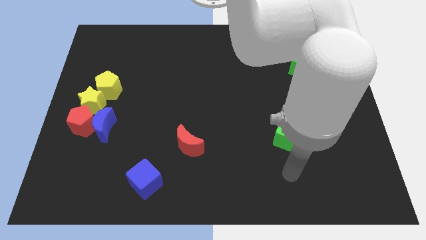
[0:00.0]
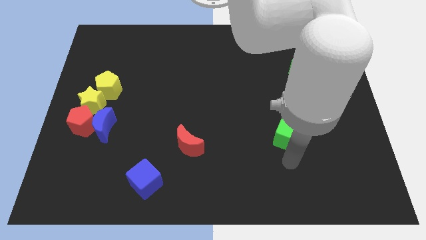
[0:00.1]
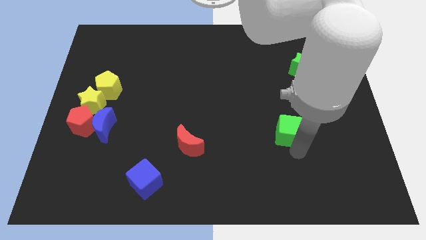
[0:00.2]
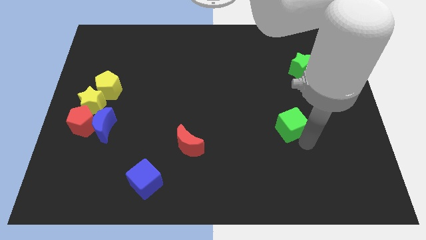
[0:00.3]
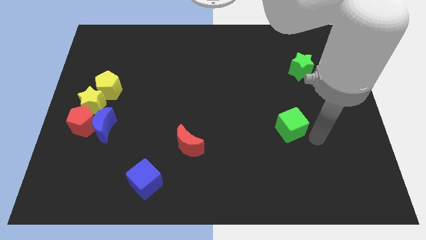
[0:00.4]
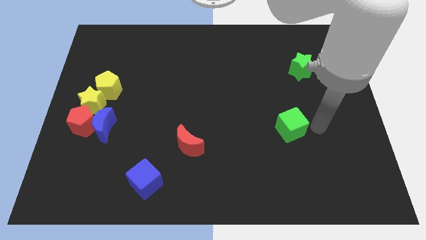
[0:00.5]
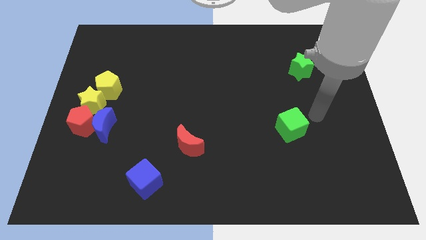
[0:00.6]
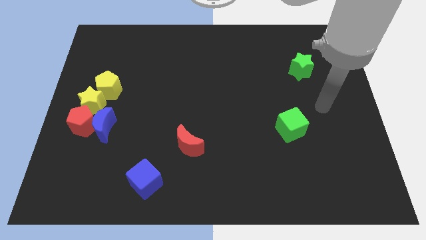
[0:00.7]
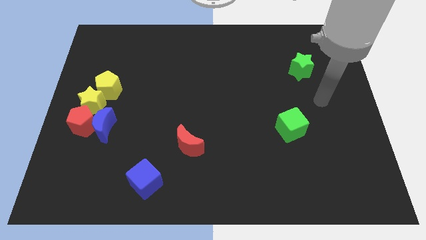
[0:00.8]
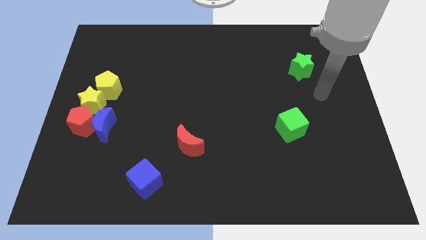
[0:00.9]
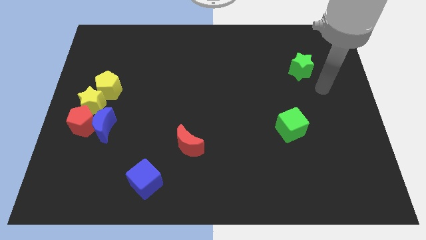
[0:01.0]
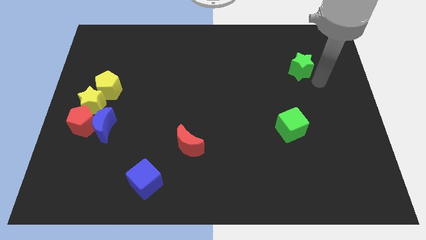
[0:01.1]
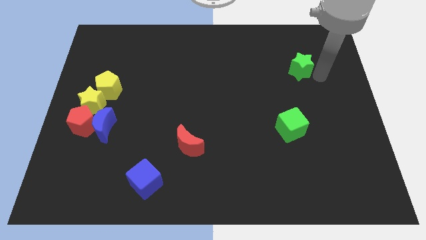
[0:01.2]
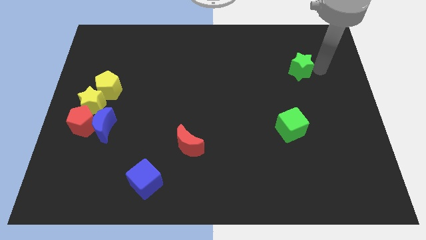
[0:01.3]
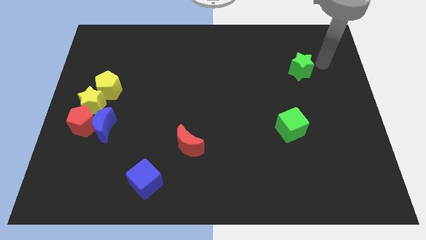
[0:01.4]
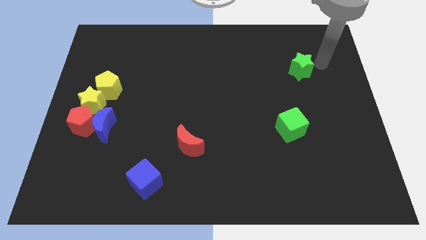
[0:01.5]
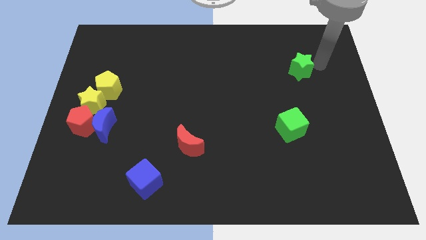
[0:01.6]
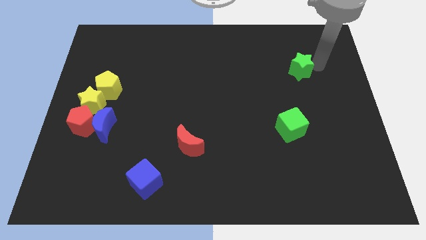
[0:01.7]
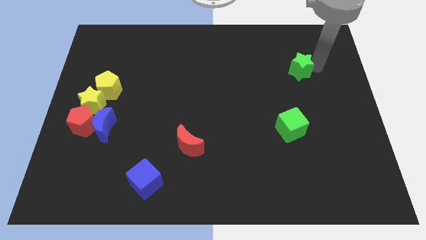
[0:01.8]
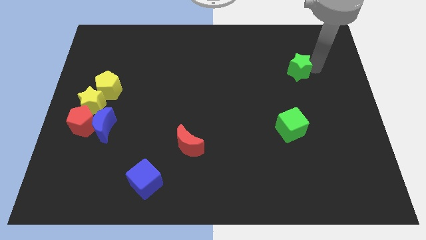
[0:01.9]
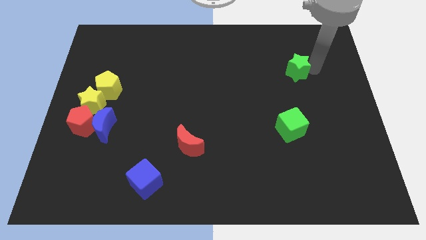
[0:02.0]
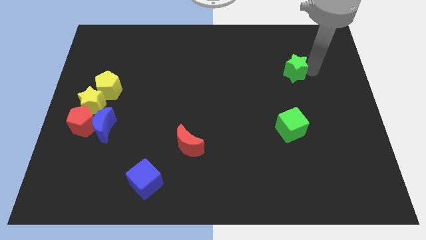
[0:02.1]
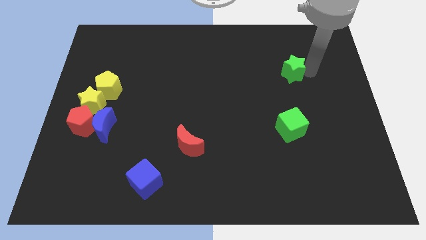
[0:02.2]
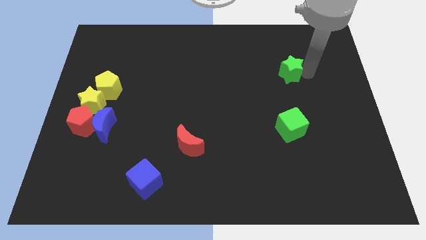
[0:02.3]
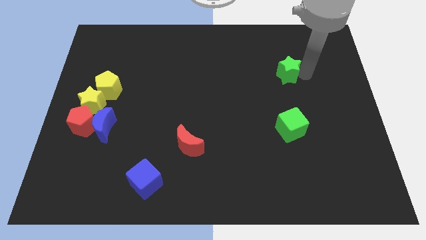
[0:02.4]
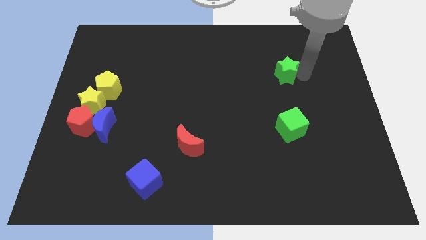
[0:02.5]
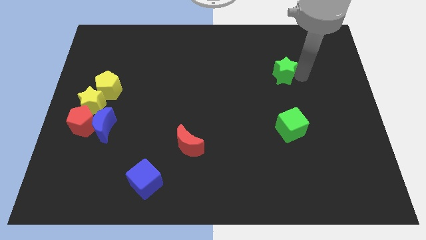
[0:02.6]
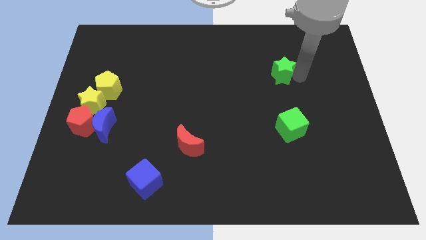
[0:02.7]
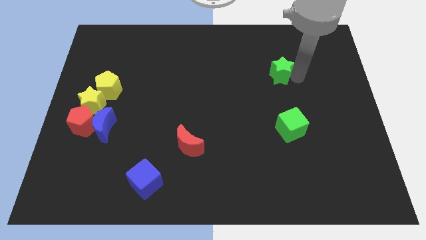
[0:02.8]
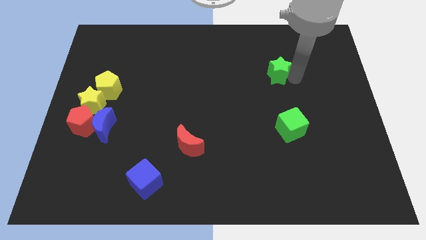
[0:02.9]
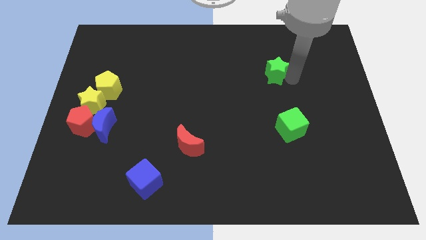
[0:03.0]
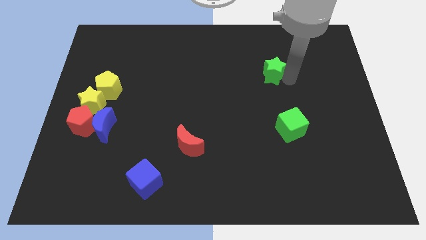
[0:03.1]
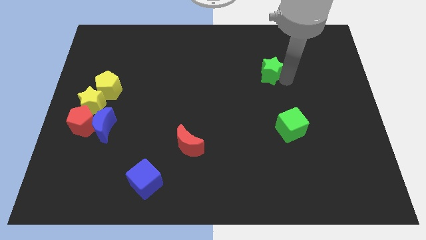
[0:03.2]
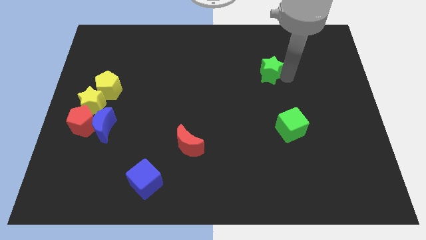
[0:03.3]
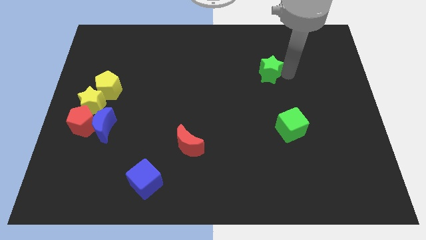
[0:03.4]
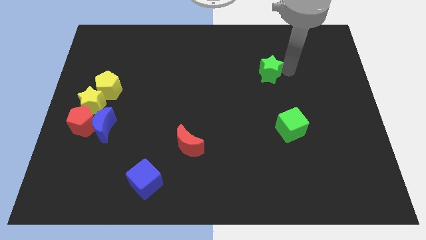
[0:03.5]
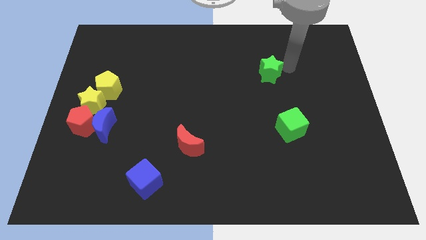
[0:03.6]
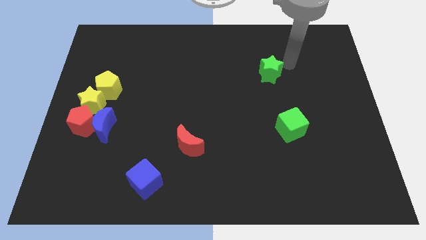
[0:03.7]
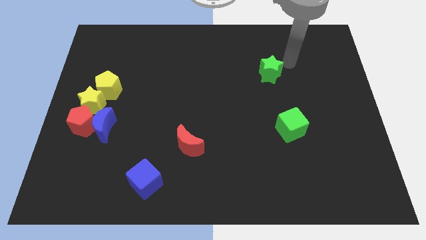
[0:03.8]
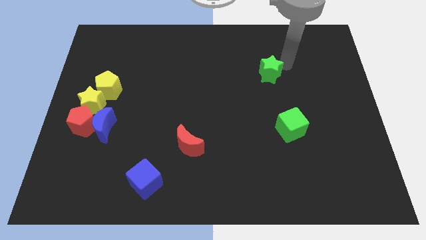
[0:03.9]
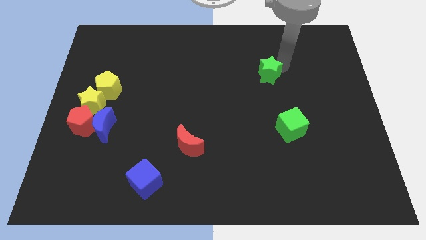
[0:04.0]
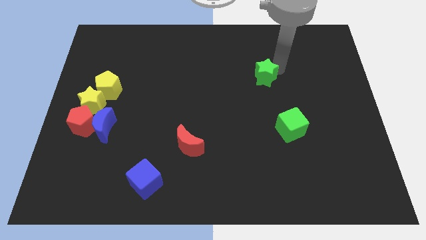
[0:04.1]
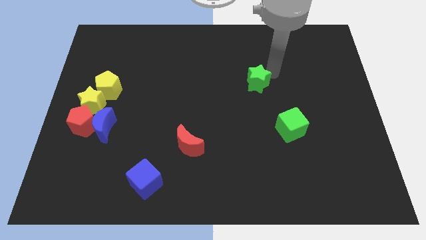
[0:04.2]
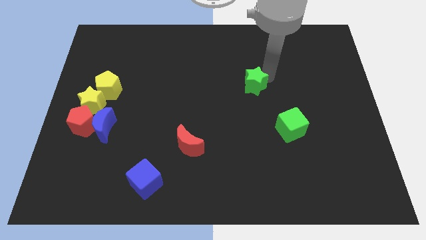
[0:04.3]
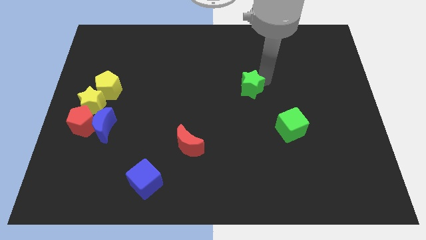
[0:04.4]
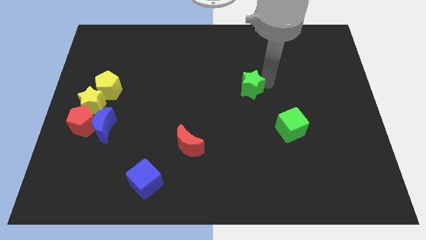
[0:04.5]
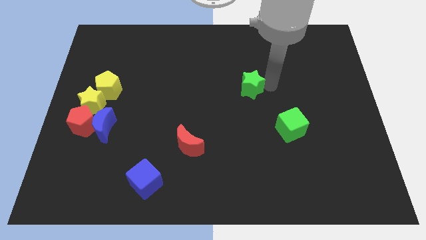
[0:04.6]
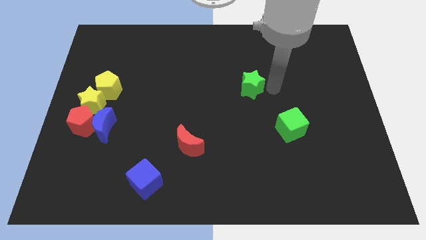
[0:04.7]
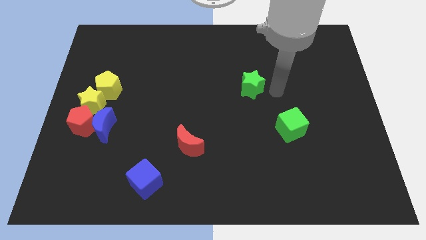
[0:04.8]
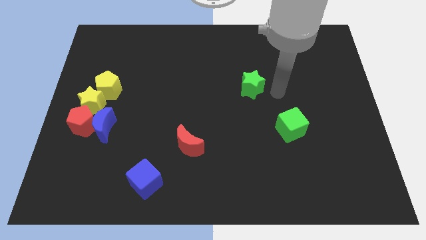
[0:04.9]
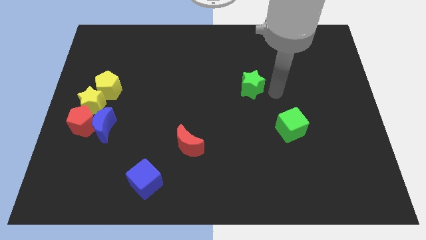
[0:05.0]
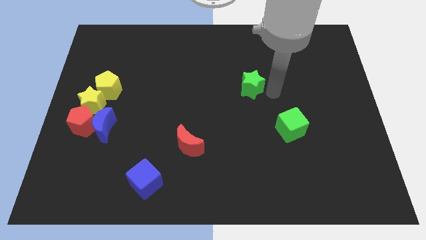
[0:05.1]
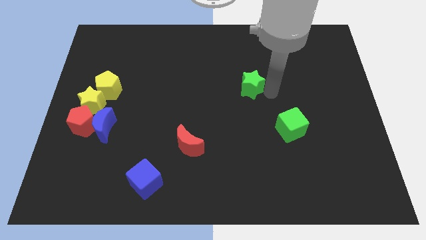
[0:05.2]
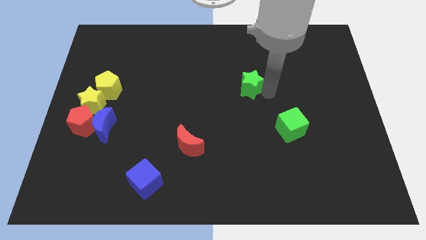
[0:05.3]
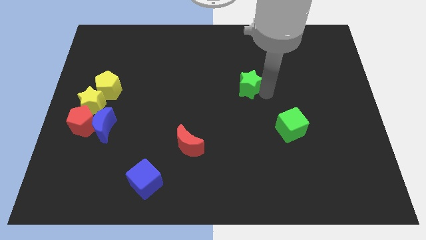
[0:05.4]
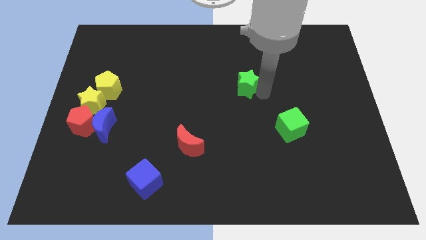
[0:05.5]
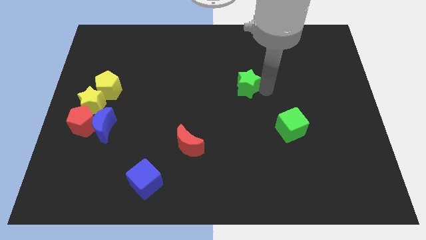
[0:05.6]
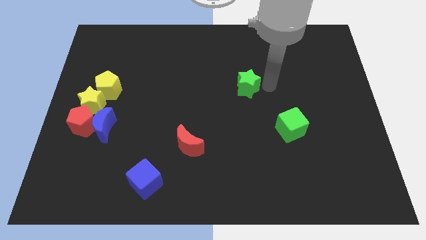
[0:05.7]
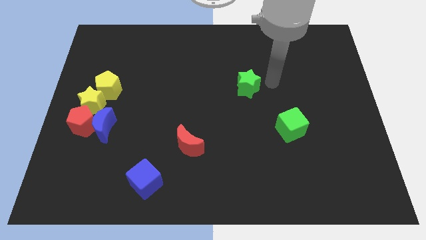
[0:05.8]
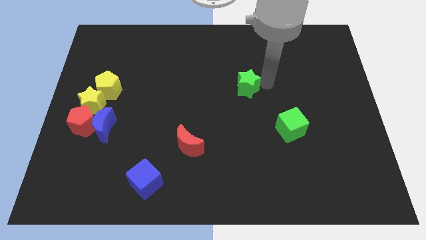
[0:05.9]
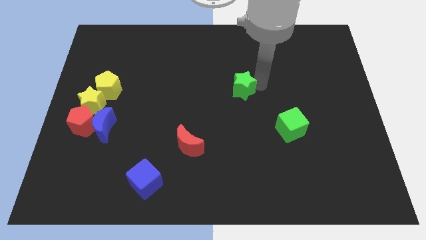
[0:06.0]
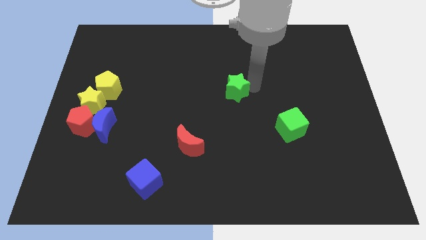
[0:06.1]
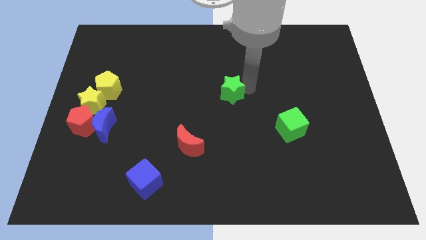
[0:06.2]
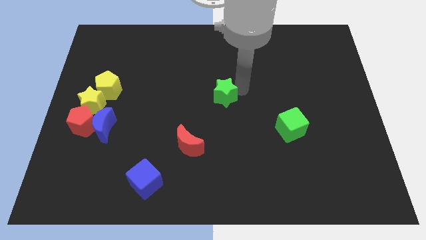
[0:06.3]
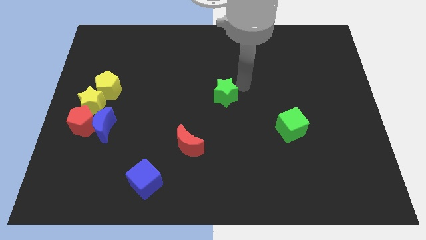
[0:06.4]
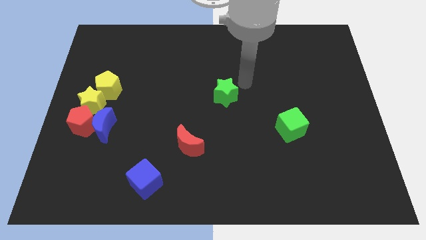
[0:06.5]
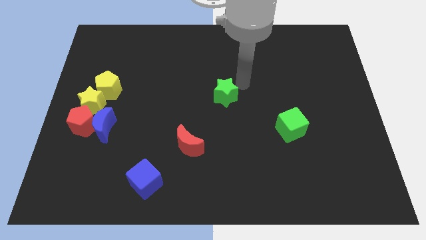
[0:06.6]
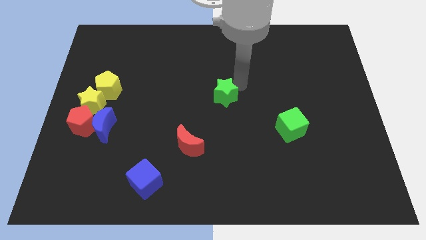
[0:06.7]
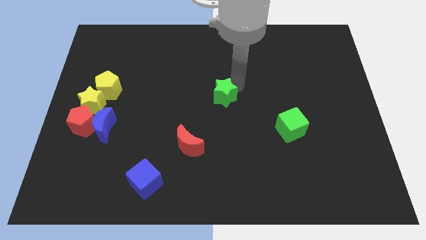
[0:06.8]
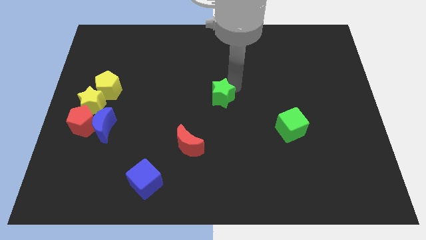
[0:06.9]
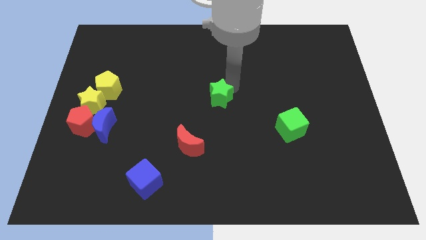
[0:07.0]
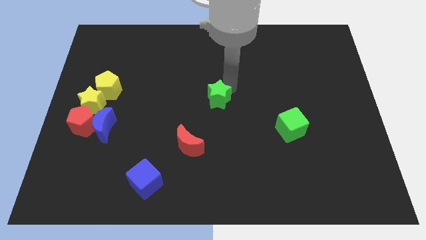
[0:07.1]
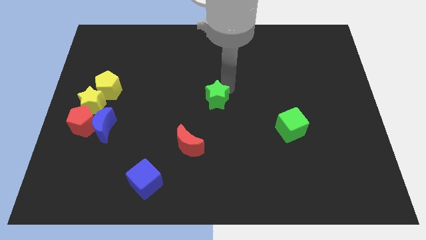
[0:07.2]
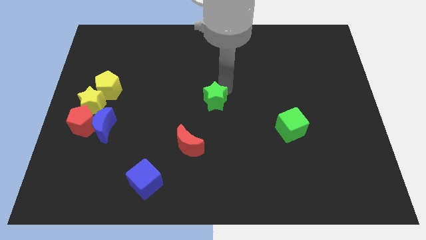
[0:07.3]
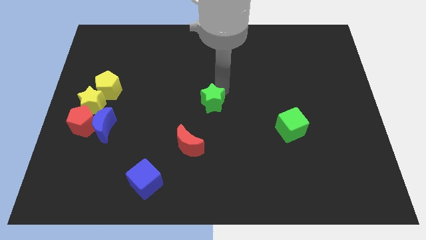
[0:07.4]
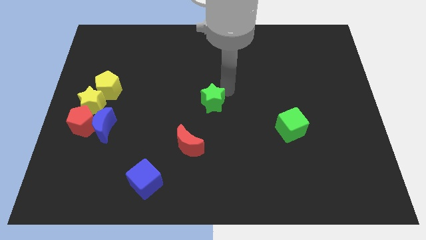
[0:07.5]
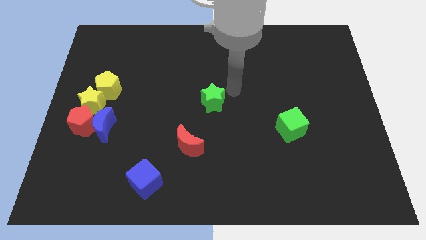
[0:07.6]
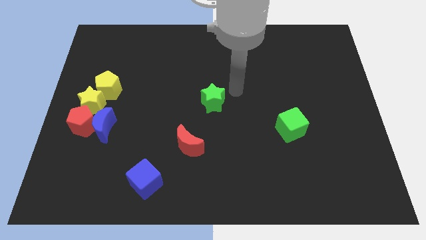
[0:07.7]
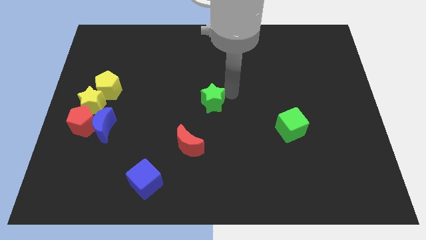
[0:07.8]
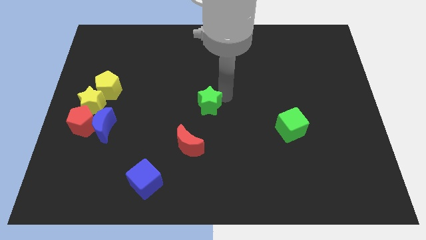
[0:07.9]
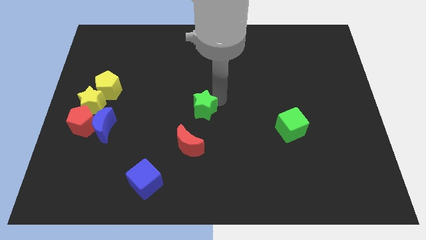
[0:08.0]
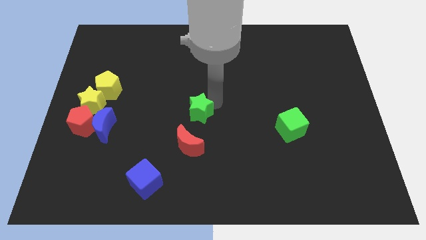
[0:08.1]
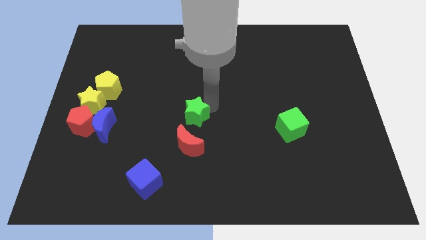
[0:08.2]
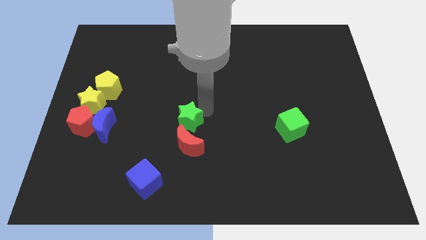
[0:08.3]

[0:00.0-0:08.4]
push the green star diagonally up and to the left of the red moon
